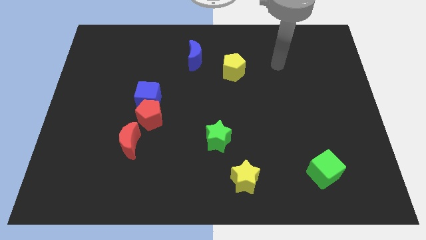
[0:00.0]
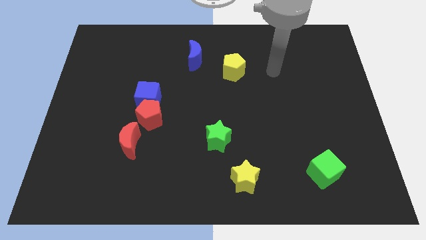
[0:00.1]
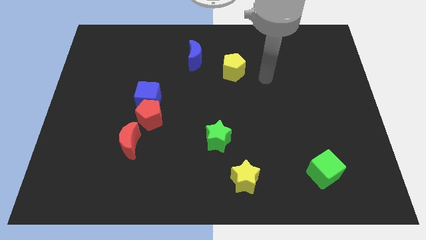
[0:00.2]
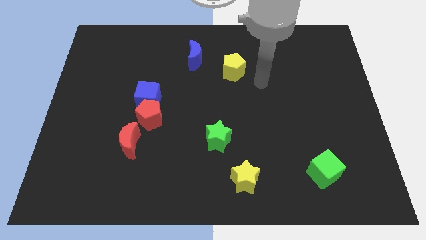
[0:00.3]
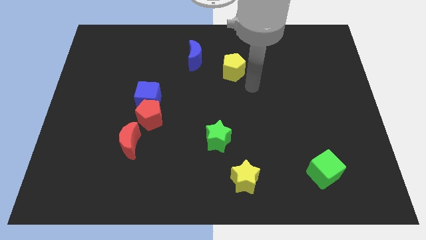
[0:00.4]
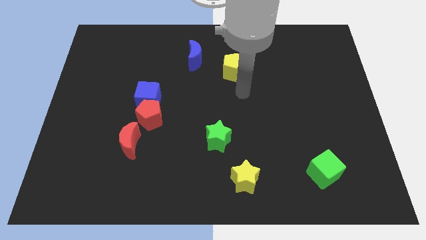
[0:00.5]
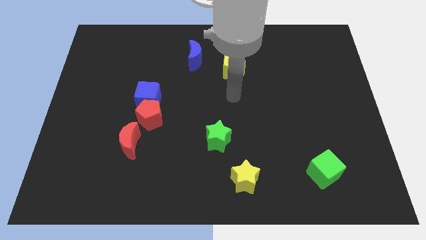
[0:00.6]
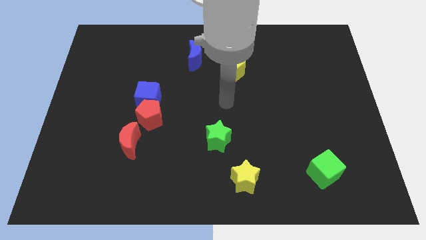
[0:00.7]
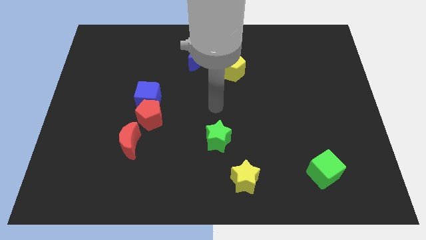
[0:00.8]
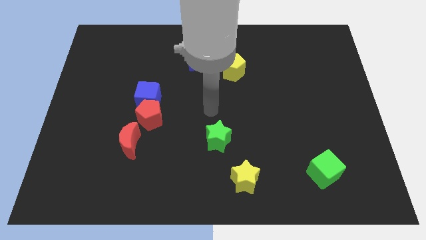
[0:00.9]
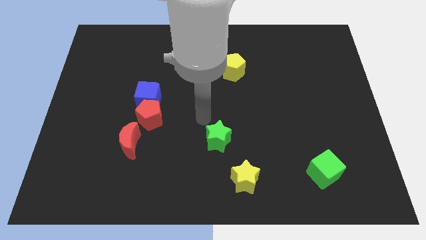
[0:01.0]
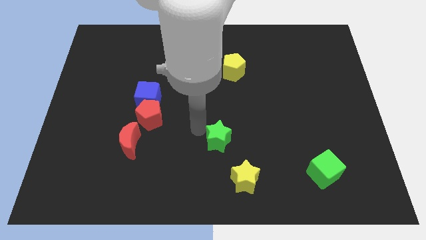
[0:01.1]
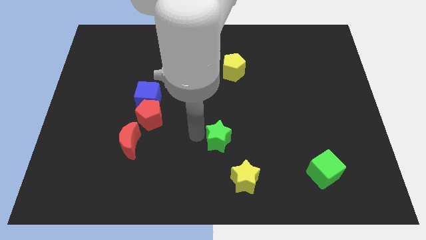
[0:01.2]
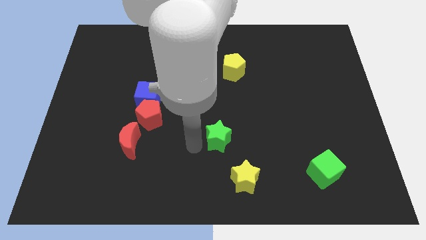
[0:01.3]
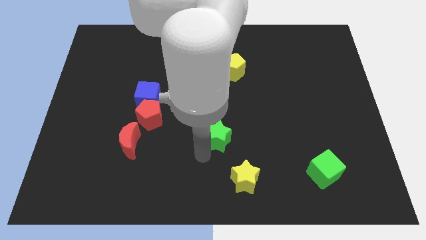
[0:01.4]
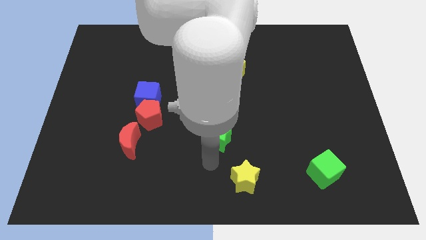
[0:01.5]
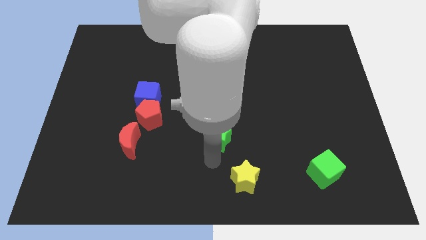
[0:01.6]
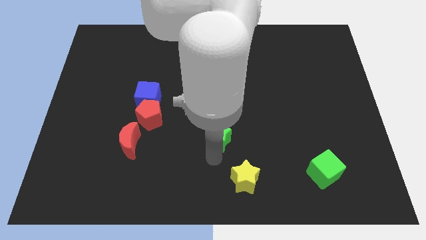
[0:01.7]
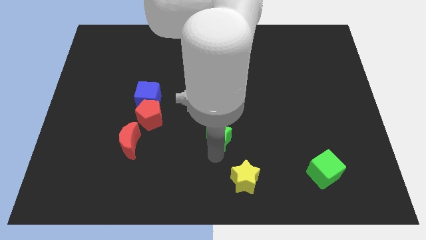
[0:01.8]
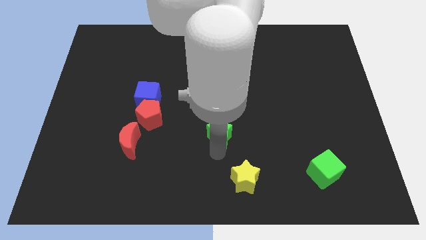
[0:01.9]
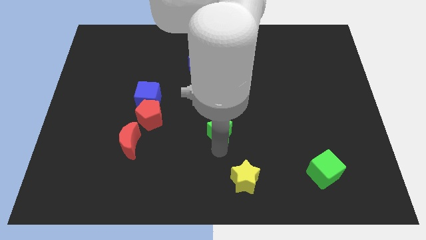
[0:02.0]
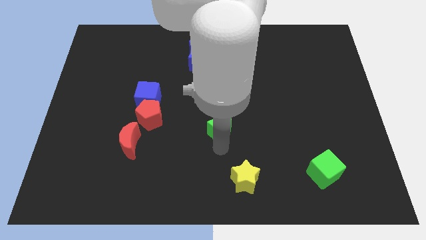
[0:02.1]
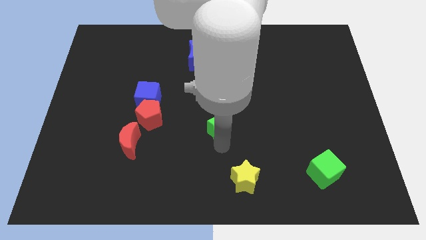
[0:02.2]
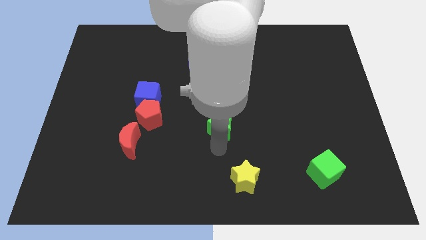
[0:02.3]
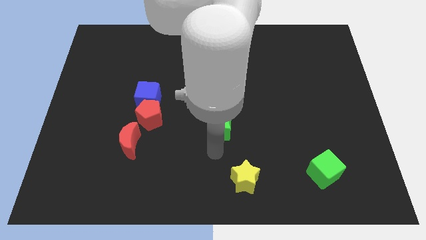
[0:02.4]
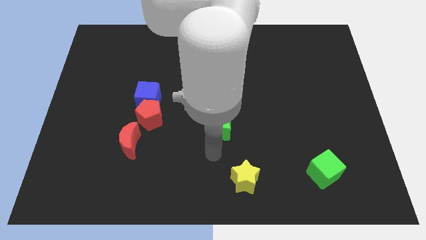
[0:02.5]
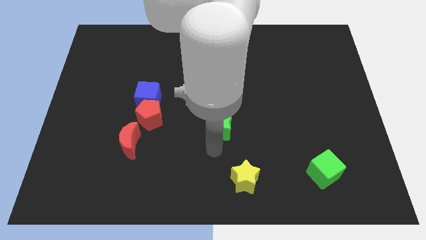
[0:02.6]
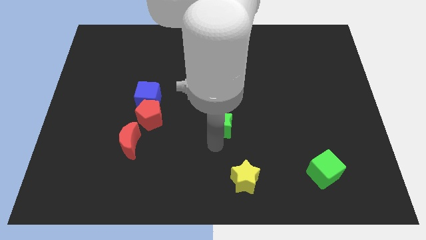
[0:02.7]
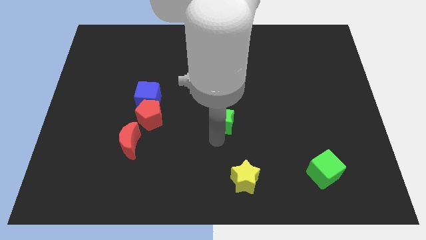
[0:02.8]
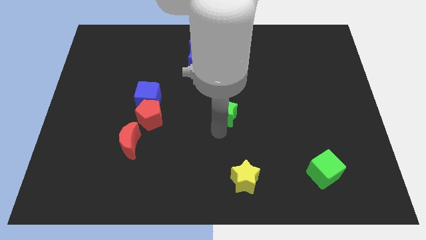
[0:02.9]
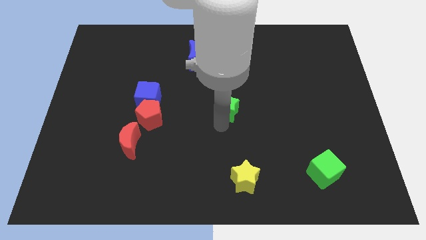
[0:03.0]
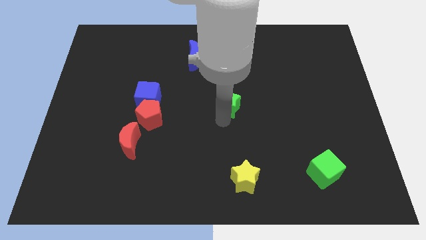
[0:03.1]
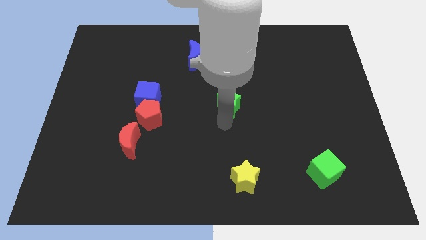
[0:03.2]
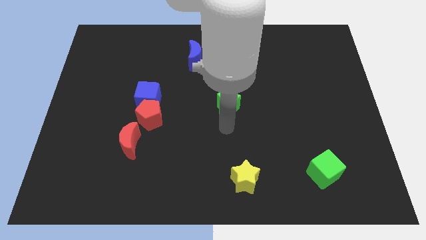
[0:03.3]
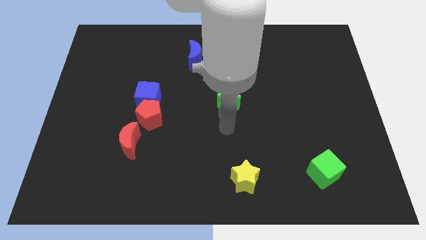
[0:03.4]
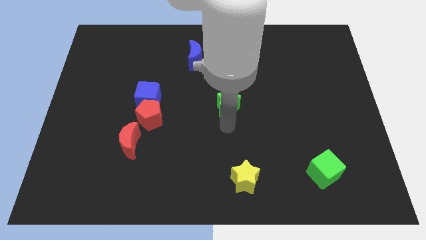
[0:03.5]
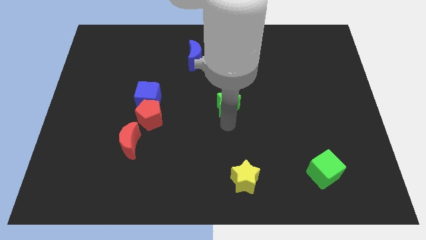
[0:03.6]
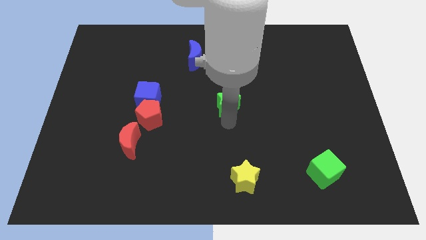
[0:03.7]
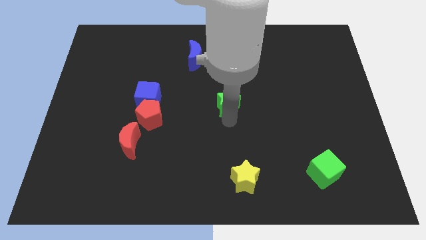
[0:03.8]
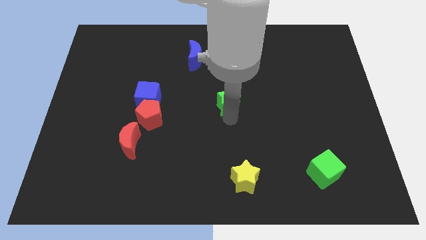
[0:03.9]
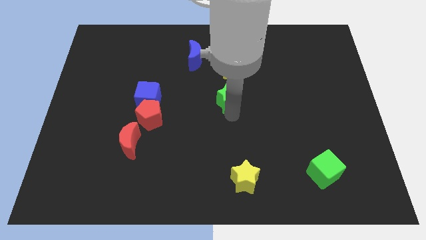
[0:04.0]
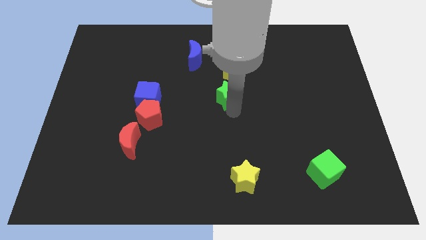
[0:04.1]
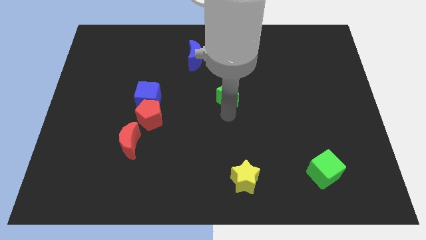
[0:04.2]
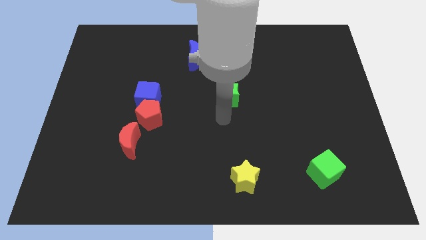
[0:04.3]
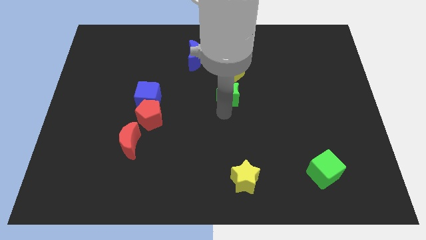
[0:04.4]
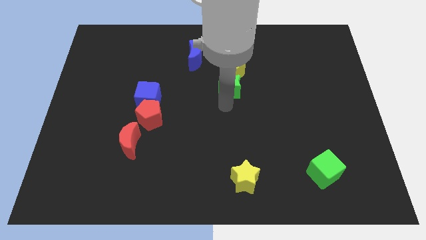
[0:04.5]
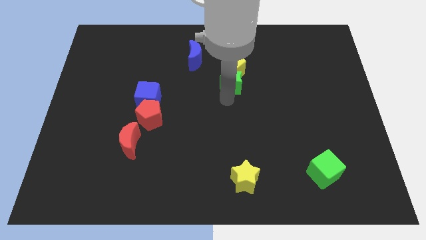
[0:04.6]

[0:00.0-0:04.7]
slide the green star close to the yellow pentagon

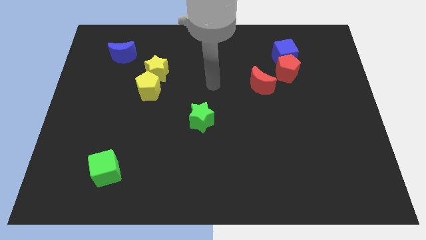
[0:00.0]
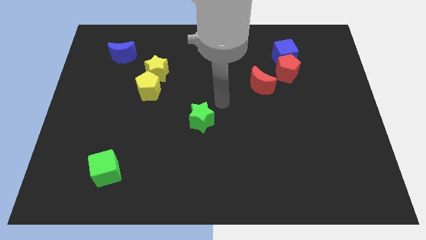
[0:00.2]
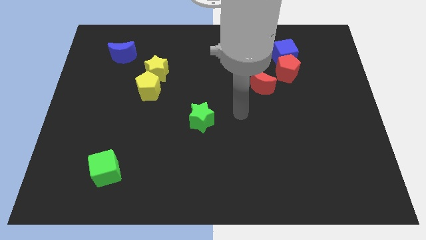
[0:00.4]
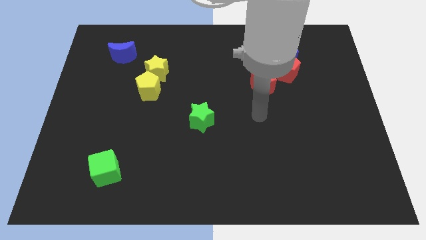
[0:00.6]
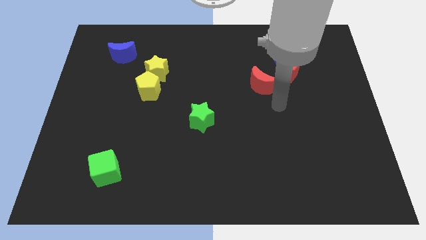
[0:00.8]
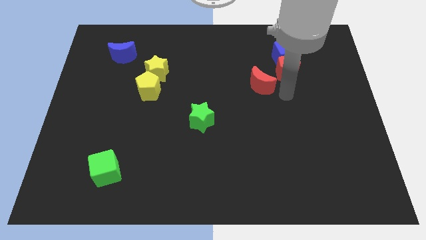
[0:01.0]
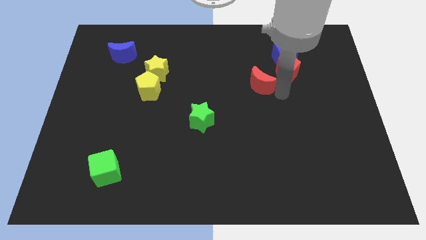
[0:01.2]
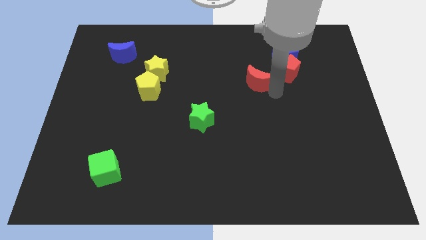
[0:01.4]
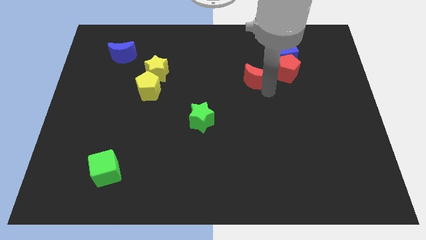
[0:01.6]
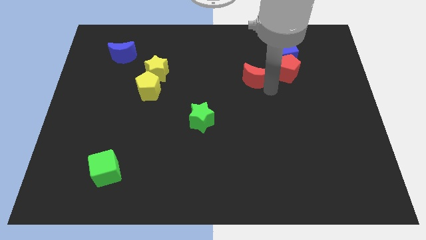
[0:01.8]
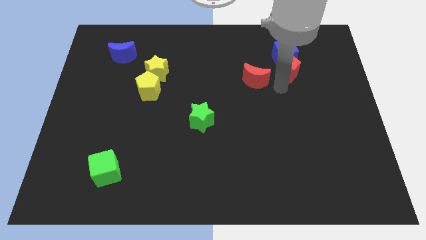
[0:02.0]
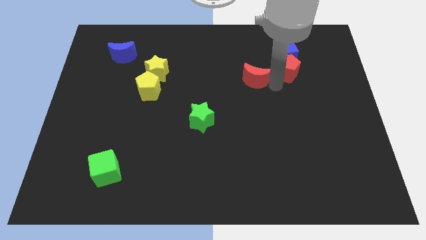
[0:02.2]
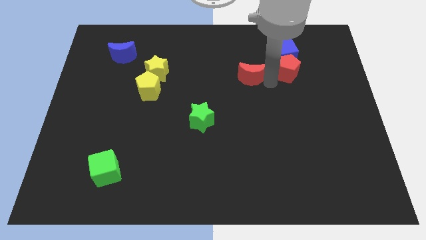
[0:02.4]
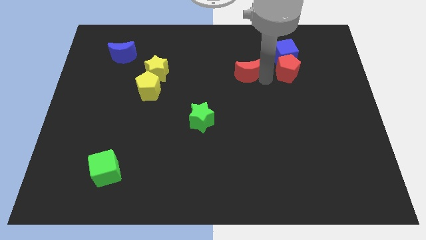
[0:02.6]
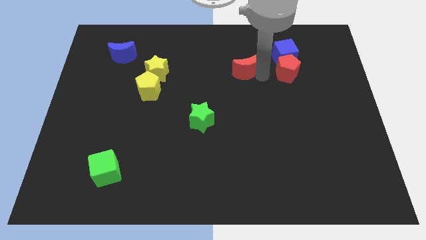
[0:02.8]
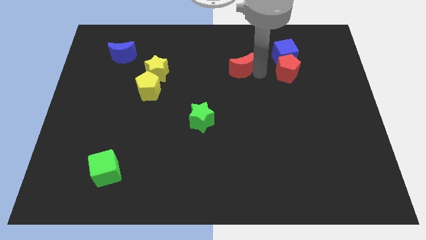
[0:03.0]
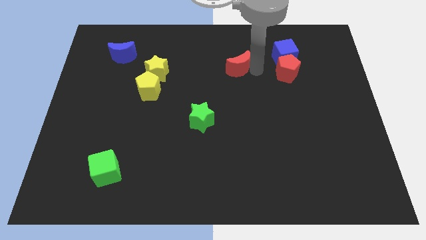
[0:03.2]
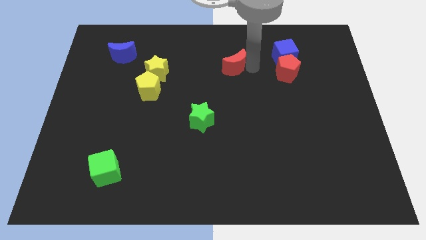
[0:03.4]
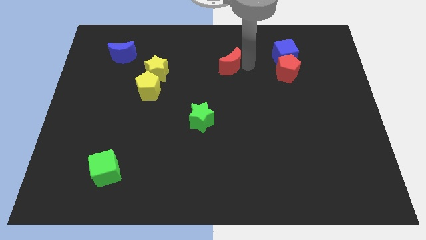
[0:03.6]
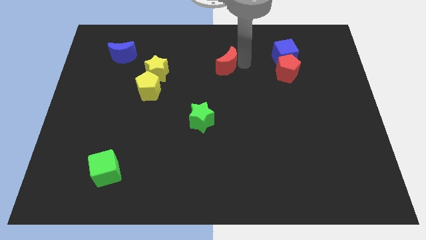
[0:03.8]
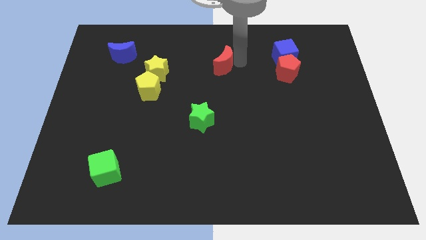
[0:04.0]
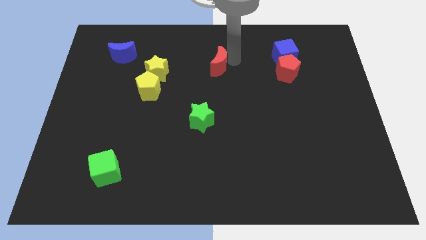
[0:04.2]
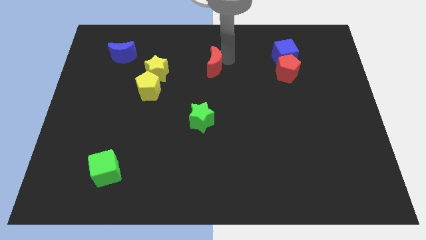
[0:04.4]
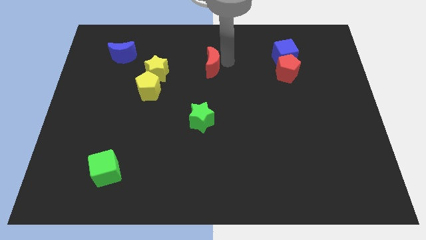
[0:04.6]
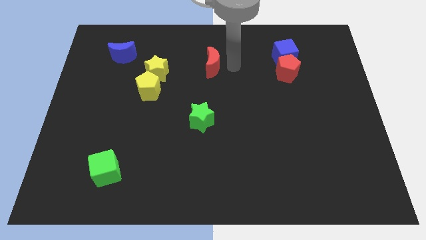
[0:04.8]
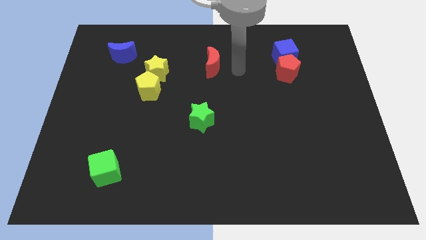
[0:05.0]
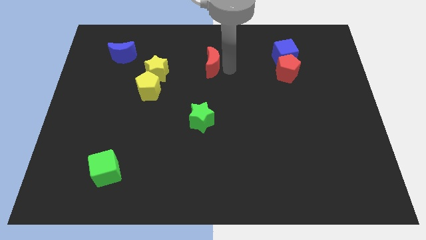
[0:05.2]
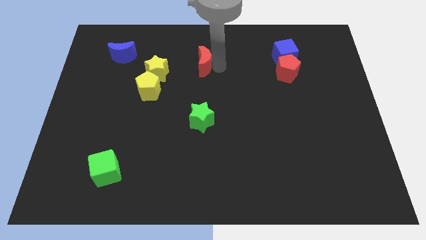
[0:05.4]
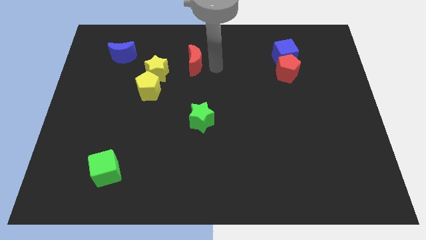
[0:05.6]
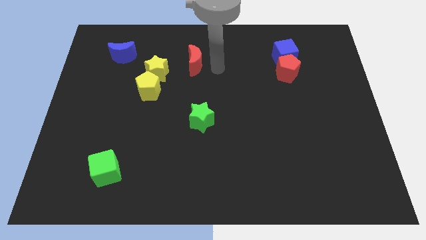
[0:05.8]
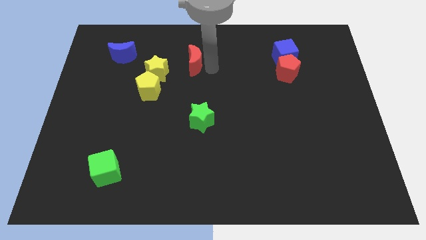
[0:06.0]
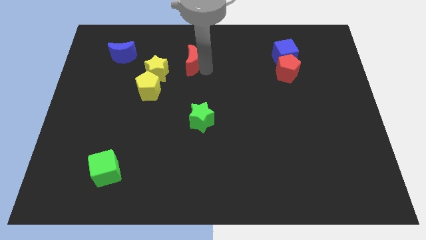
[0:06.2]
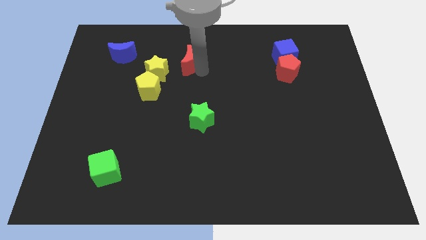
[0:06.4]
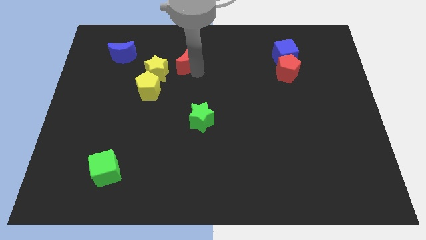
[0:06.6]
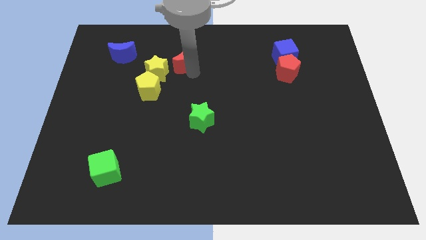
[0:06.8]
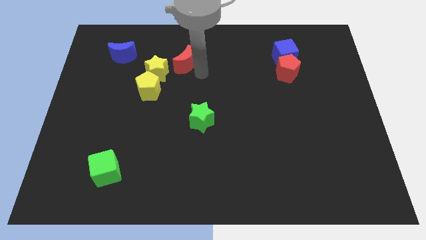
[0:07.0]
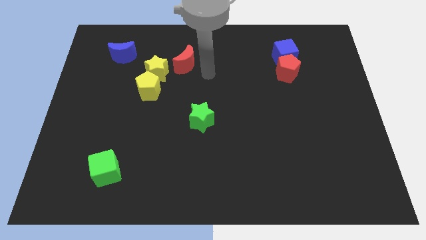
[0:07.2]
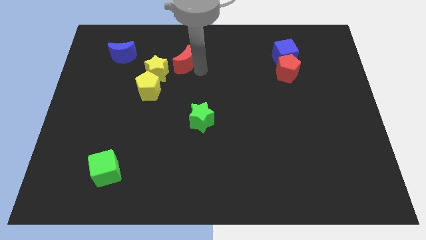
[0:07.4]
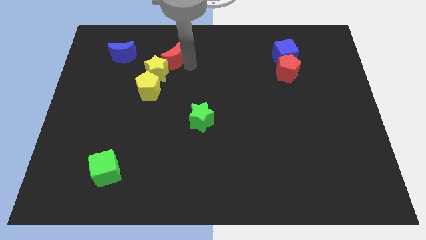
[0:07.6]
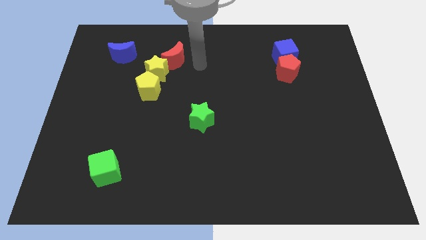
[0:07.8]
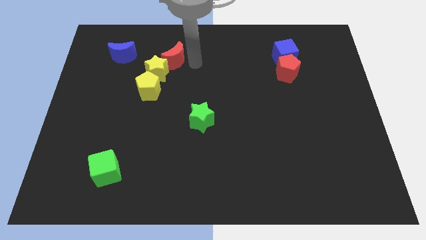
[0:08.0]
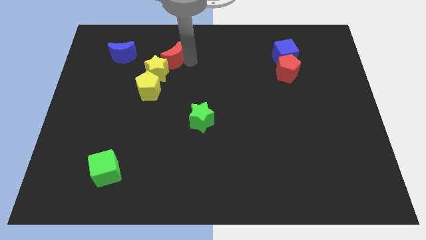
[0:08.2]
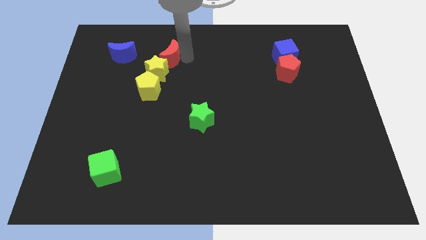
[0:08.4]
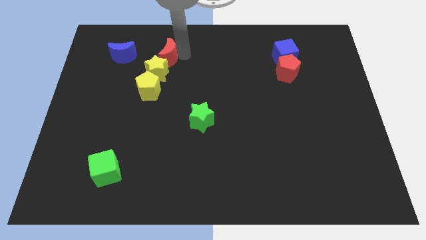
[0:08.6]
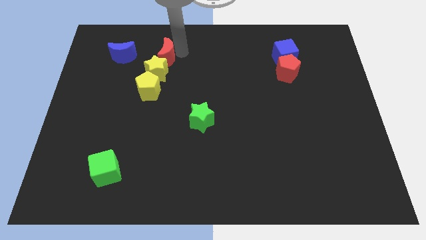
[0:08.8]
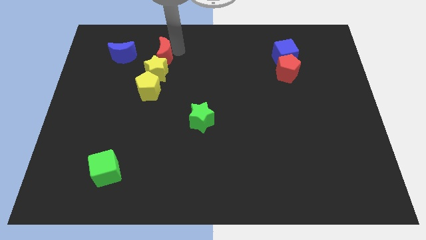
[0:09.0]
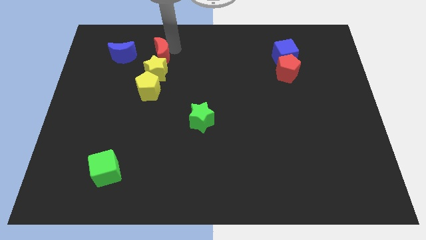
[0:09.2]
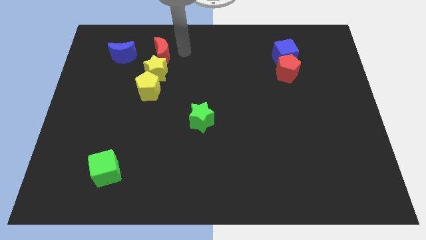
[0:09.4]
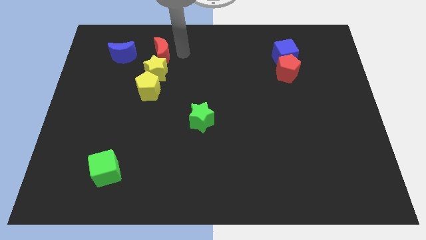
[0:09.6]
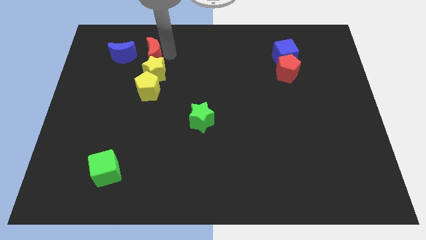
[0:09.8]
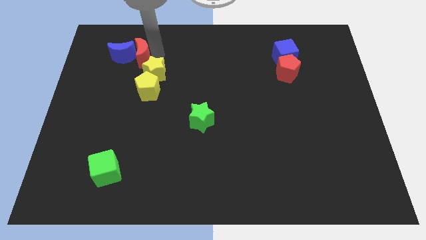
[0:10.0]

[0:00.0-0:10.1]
slide the red moon next to the blue moon
